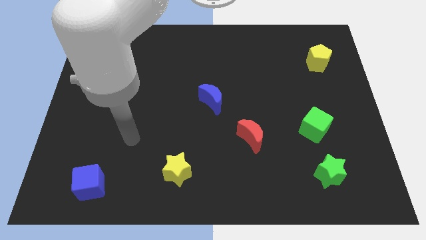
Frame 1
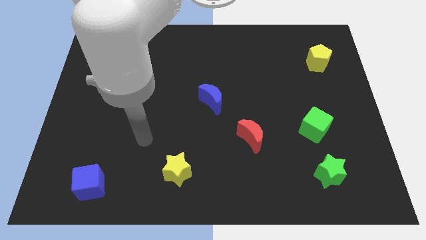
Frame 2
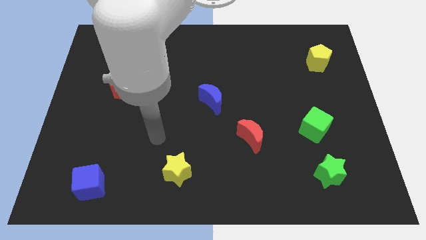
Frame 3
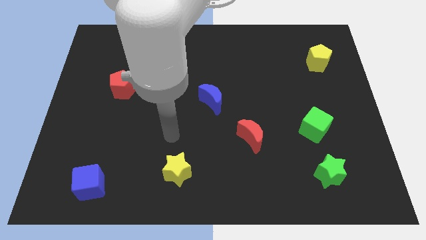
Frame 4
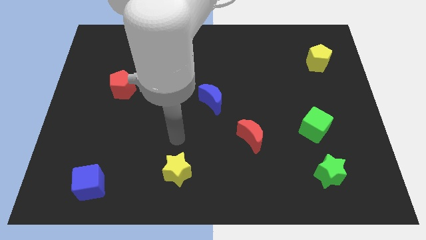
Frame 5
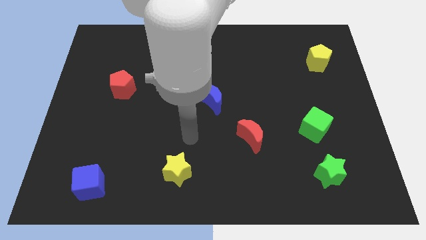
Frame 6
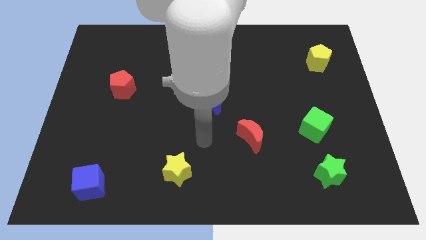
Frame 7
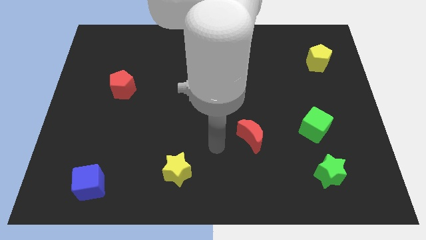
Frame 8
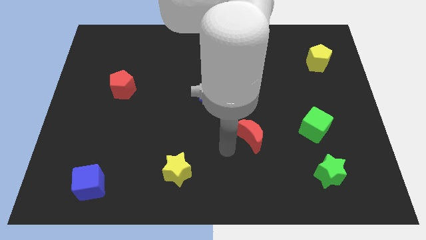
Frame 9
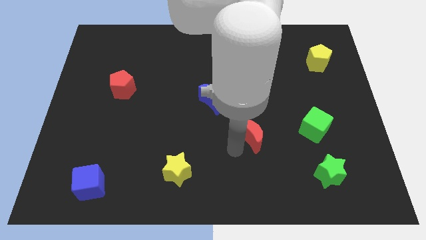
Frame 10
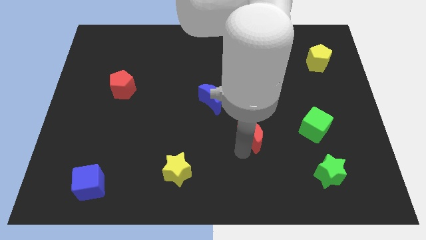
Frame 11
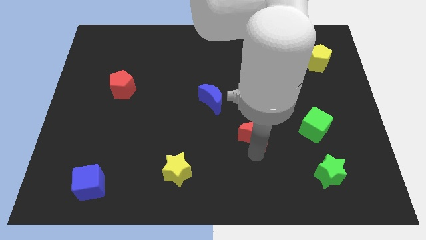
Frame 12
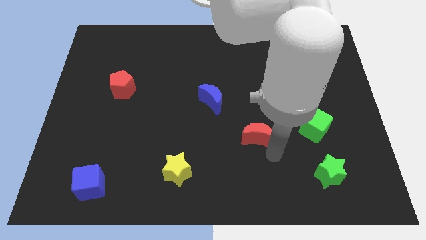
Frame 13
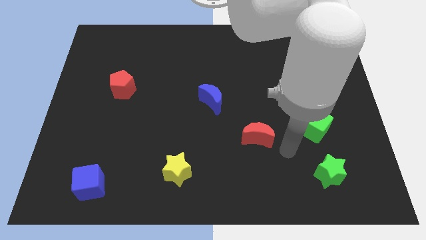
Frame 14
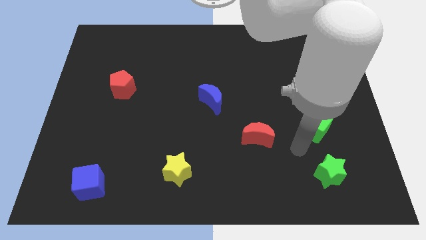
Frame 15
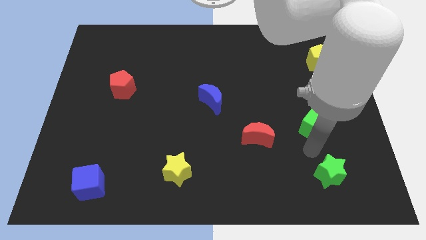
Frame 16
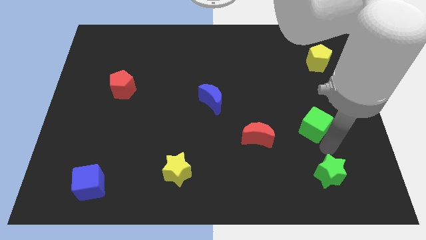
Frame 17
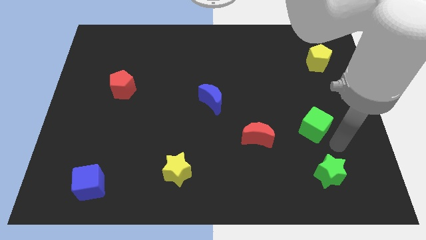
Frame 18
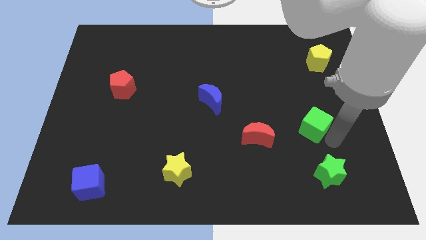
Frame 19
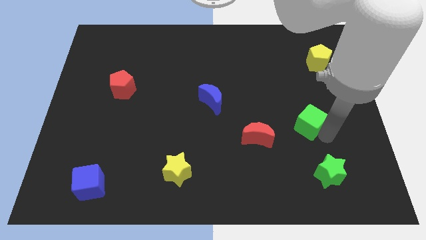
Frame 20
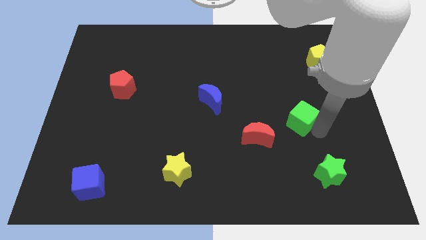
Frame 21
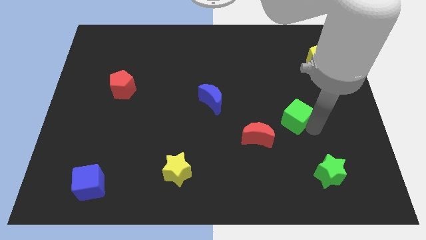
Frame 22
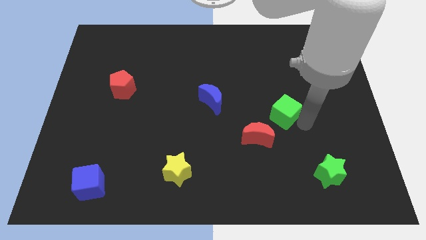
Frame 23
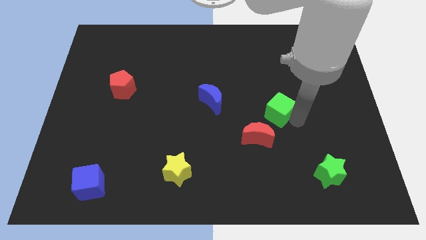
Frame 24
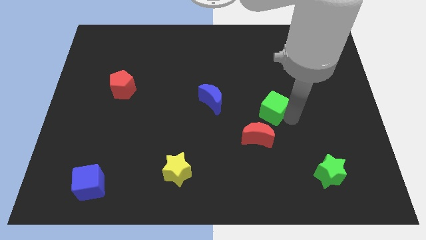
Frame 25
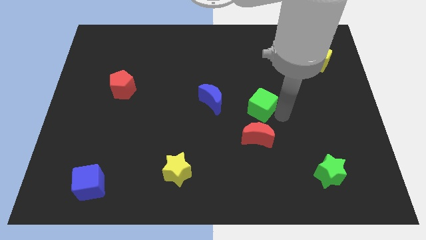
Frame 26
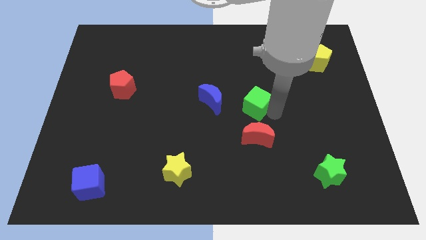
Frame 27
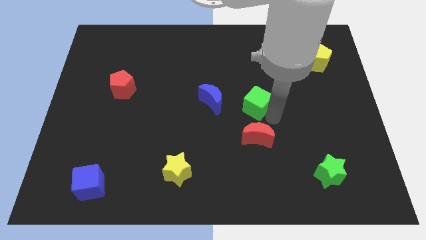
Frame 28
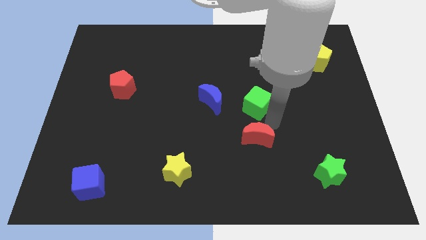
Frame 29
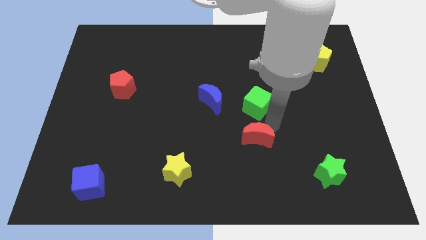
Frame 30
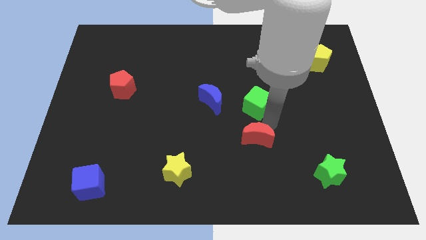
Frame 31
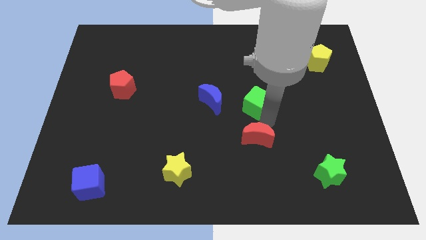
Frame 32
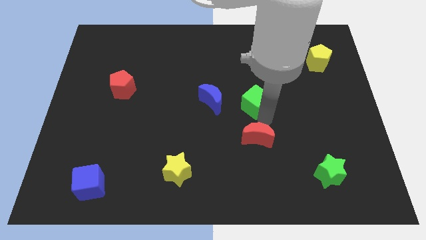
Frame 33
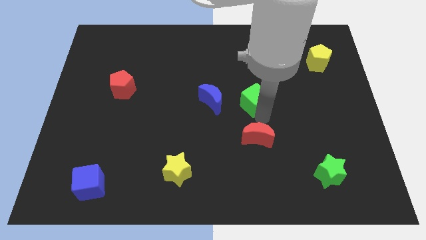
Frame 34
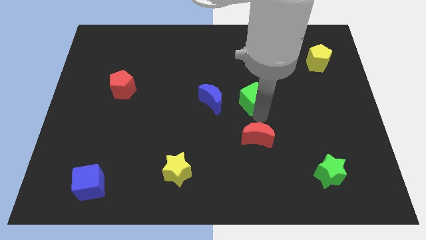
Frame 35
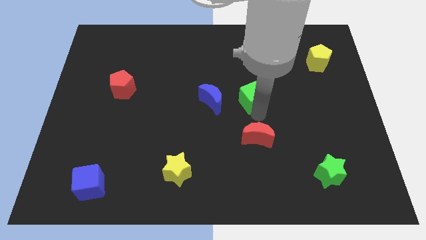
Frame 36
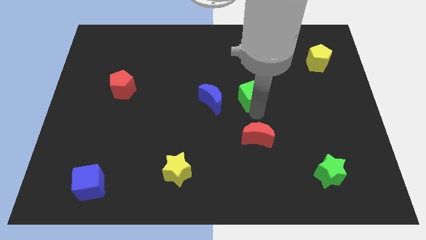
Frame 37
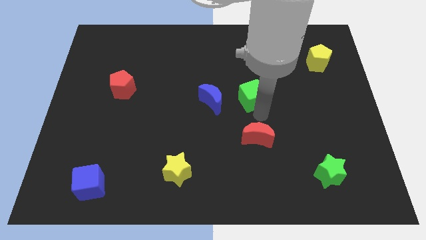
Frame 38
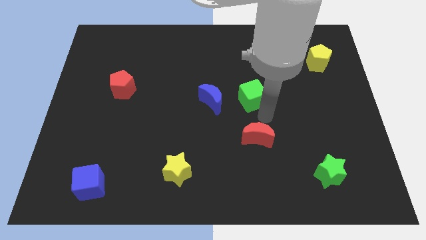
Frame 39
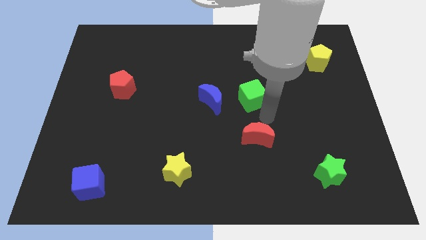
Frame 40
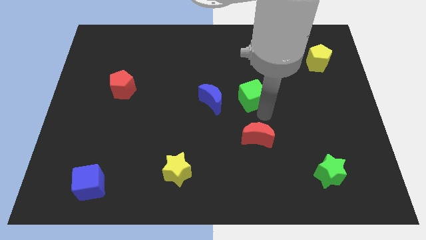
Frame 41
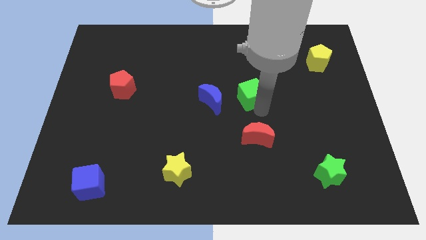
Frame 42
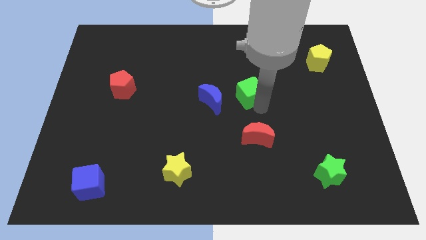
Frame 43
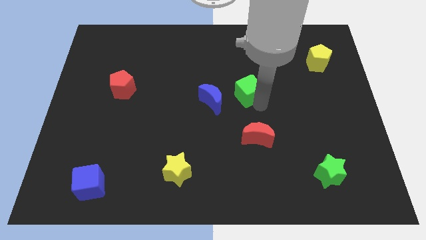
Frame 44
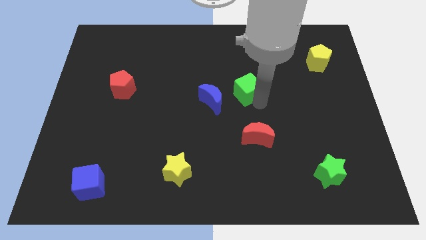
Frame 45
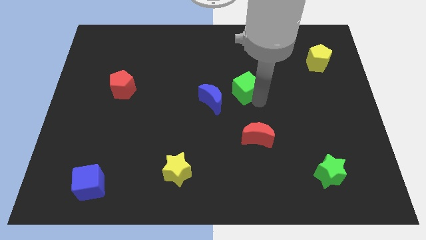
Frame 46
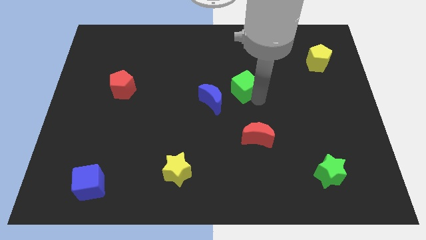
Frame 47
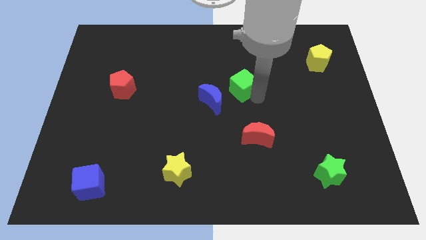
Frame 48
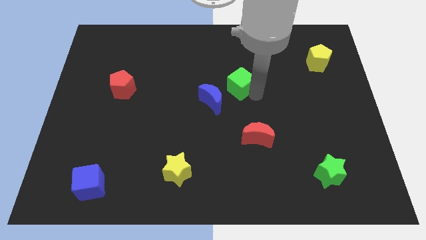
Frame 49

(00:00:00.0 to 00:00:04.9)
move the green cube upwards and left

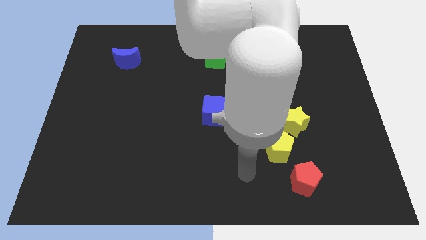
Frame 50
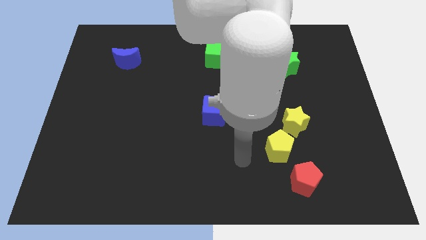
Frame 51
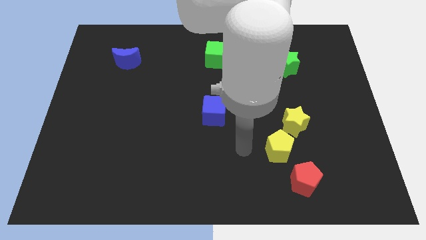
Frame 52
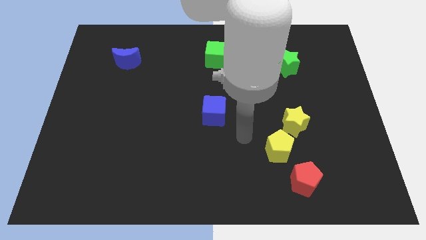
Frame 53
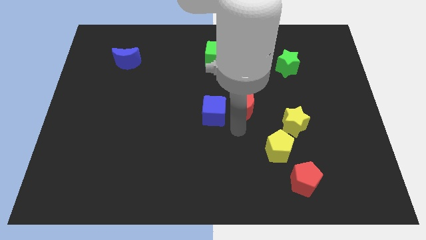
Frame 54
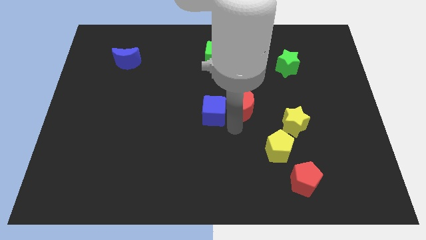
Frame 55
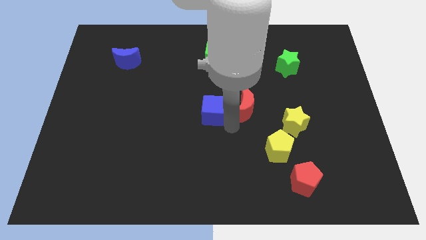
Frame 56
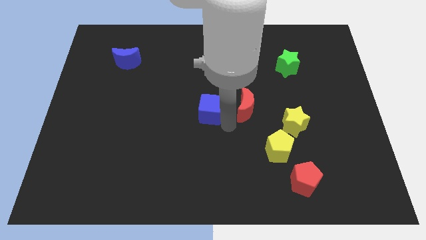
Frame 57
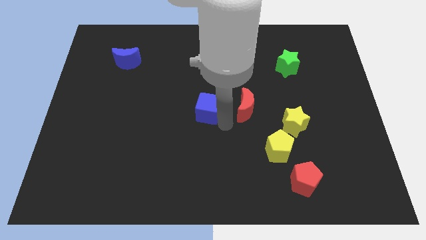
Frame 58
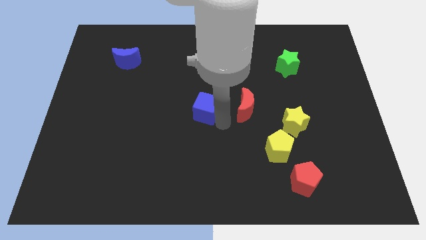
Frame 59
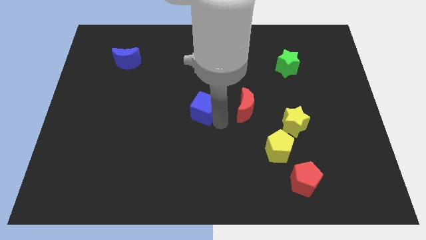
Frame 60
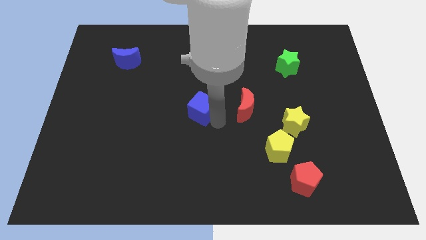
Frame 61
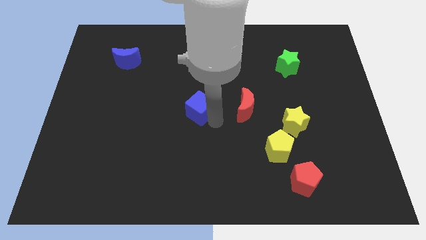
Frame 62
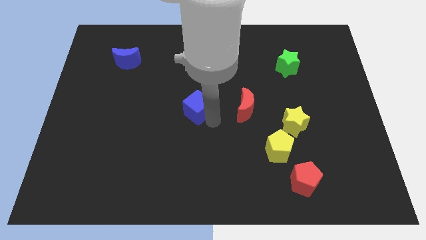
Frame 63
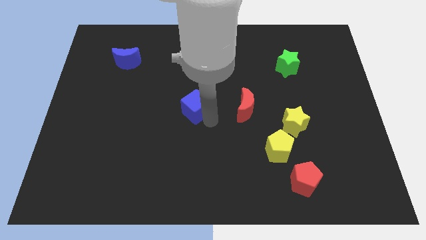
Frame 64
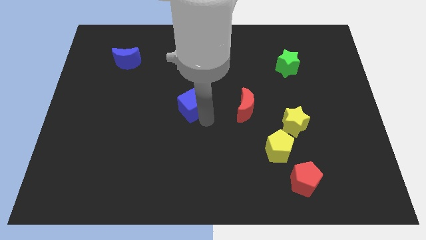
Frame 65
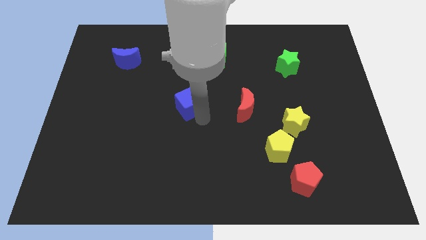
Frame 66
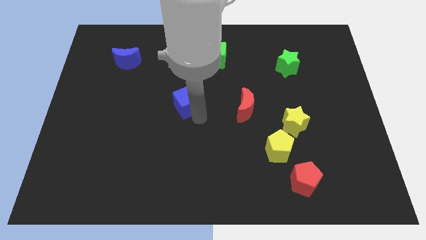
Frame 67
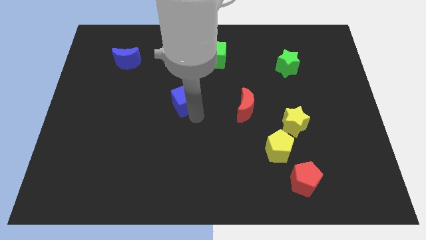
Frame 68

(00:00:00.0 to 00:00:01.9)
slightly move the blue cube up and then to the left

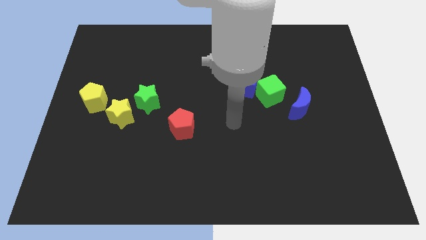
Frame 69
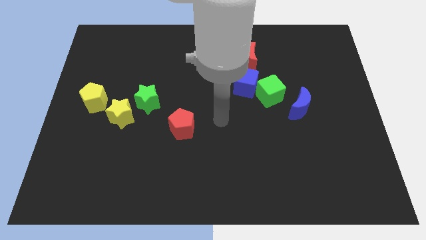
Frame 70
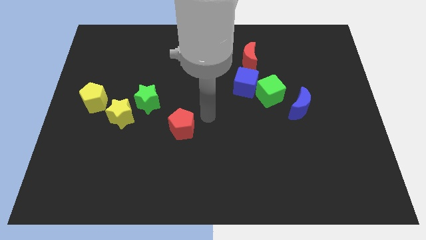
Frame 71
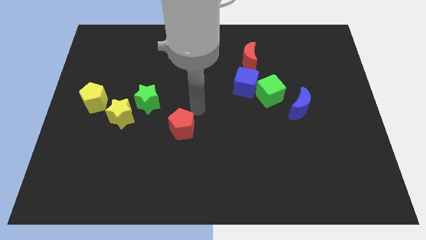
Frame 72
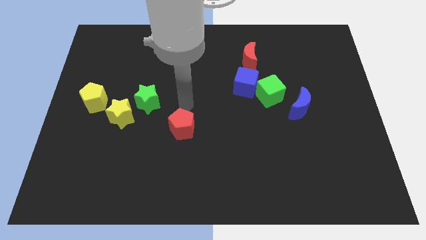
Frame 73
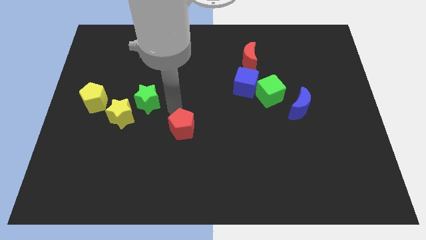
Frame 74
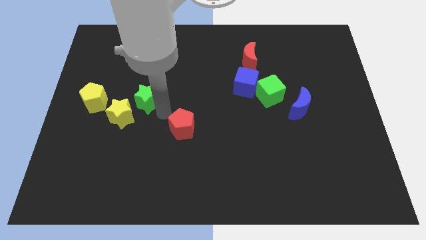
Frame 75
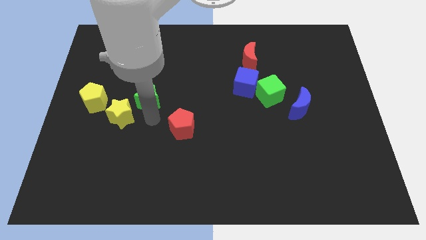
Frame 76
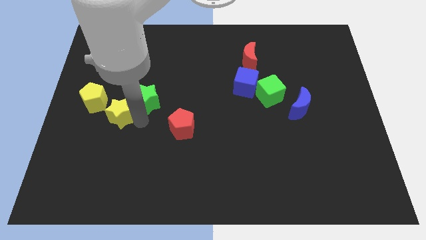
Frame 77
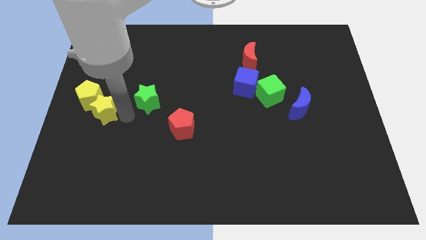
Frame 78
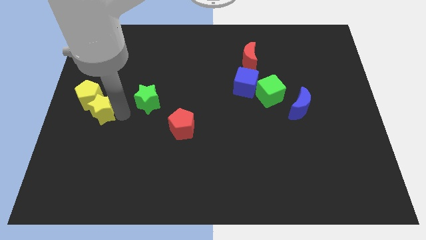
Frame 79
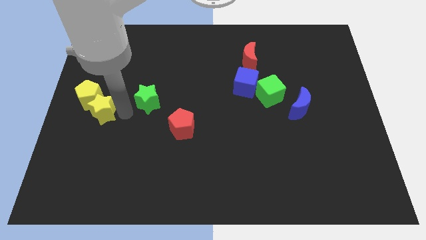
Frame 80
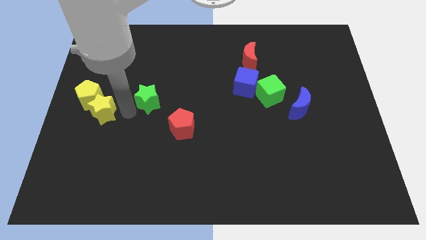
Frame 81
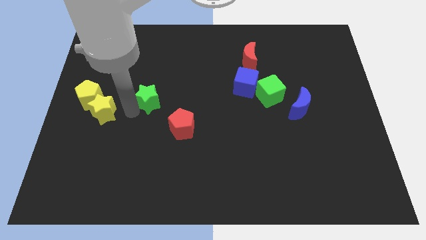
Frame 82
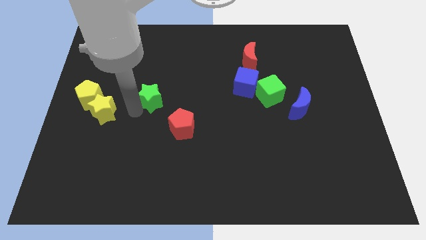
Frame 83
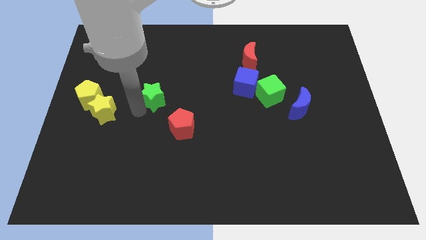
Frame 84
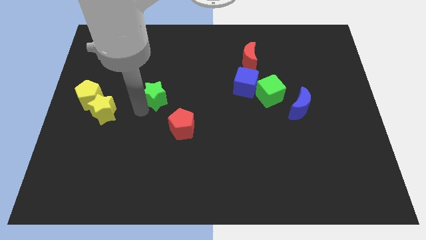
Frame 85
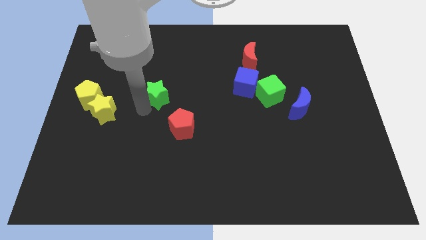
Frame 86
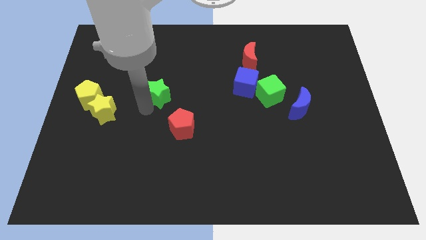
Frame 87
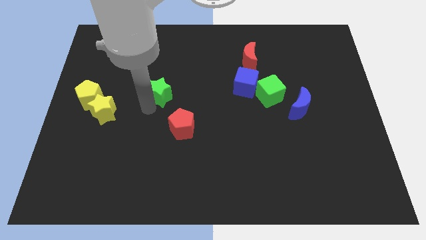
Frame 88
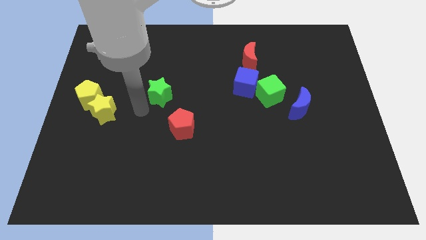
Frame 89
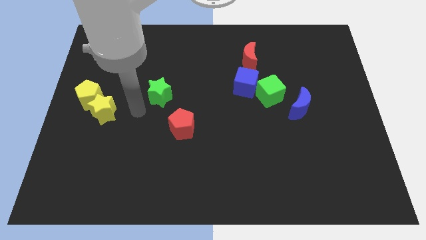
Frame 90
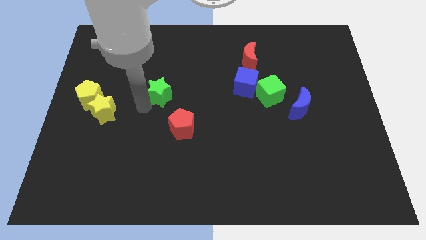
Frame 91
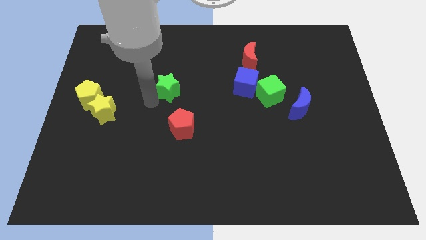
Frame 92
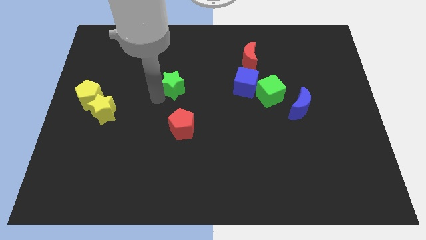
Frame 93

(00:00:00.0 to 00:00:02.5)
move the green star slightly up and to the right diagonally
